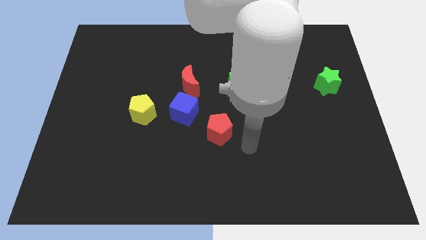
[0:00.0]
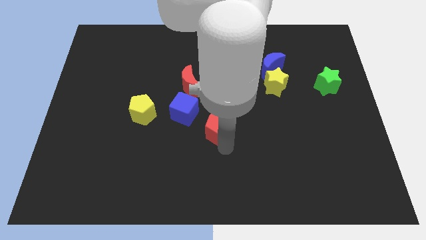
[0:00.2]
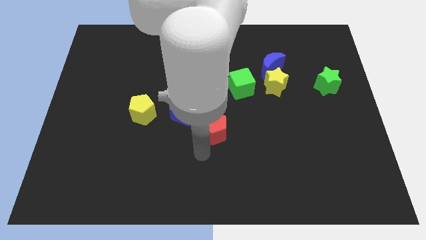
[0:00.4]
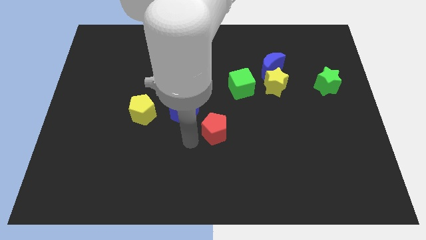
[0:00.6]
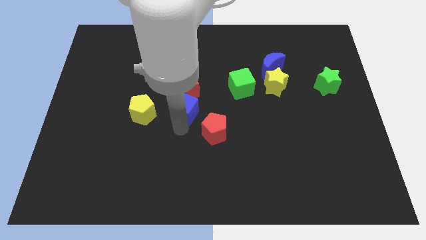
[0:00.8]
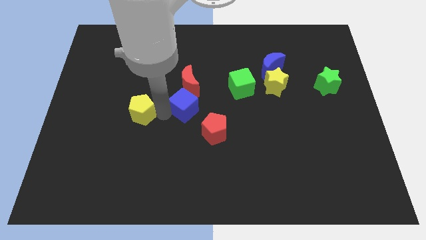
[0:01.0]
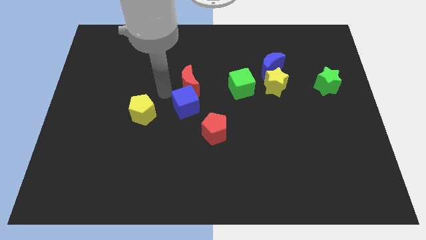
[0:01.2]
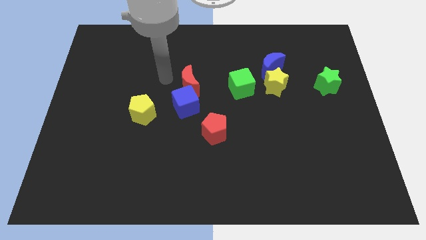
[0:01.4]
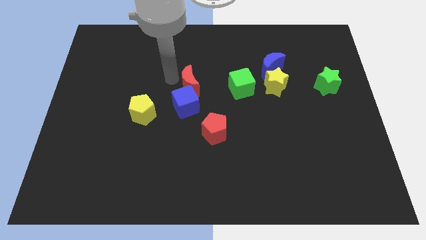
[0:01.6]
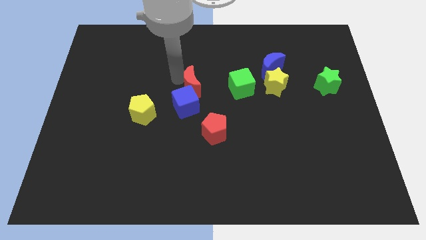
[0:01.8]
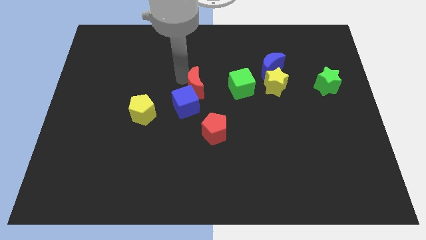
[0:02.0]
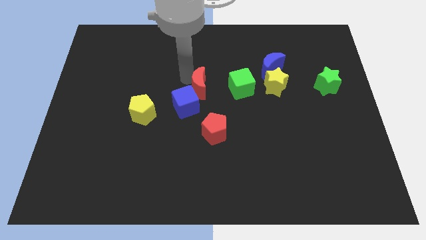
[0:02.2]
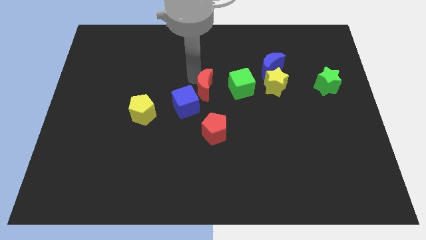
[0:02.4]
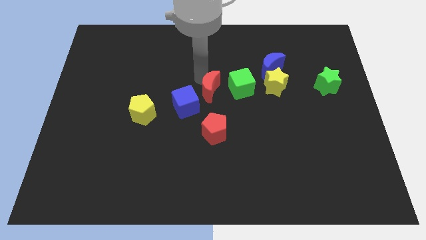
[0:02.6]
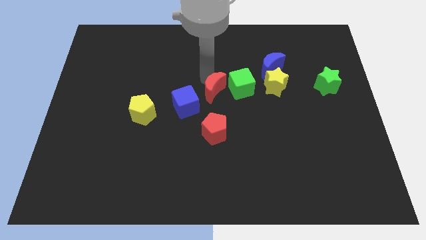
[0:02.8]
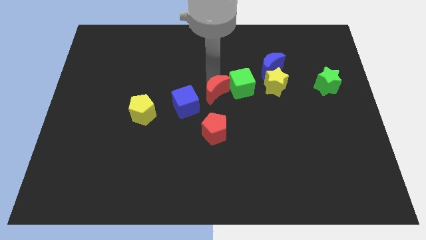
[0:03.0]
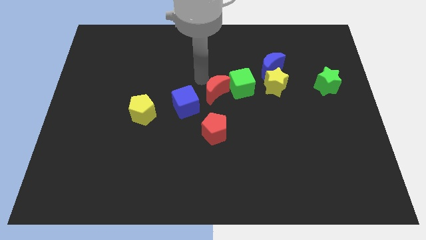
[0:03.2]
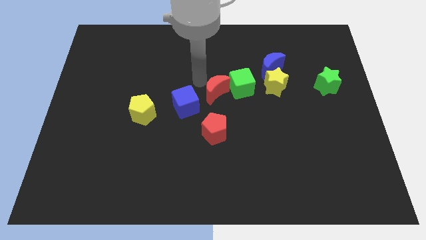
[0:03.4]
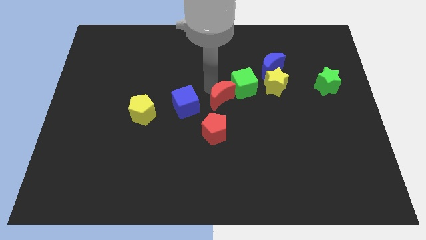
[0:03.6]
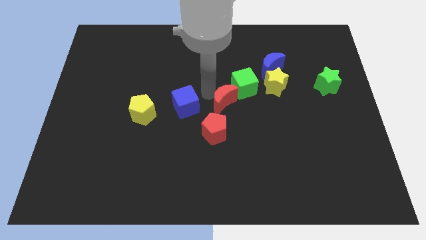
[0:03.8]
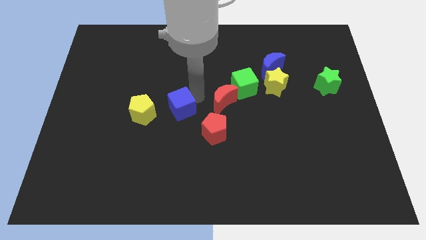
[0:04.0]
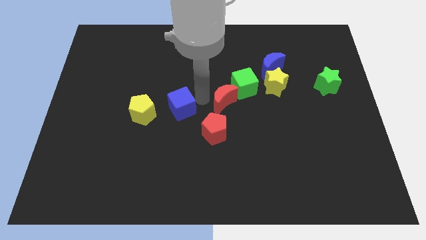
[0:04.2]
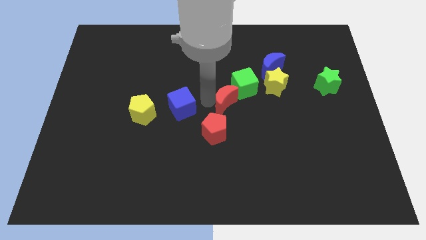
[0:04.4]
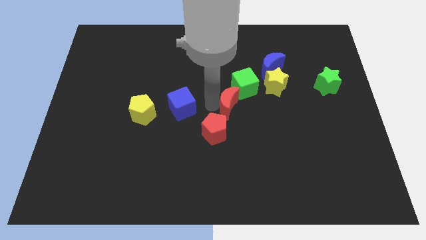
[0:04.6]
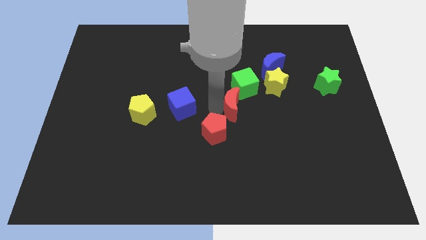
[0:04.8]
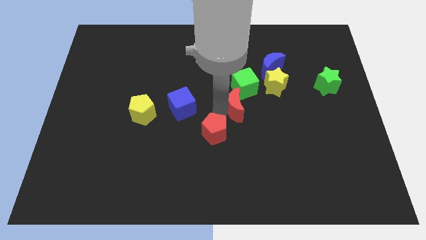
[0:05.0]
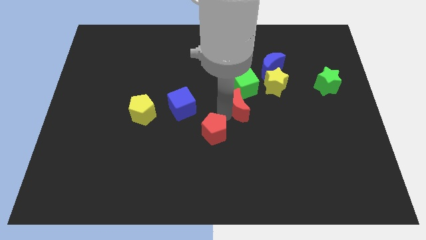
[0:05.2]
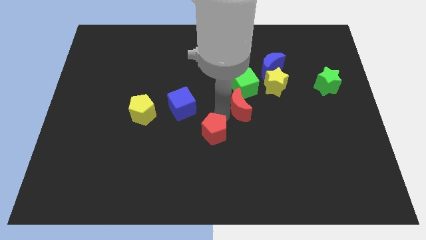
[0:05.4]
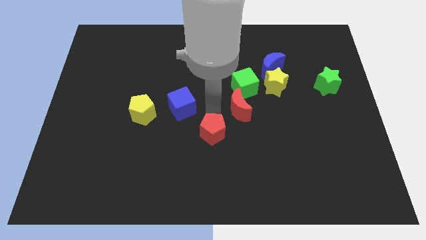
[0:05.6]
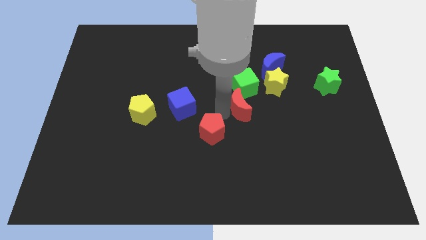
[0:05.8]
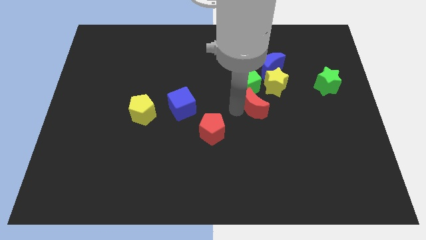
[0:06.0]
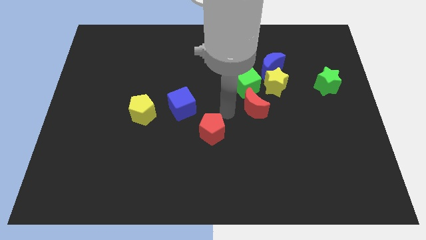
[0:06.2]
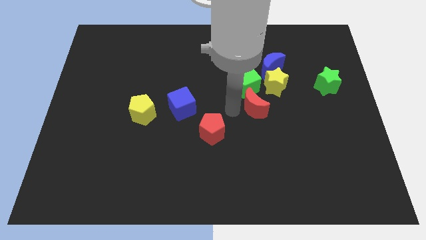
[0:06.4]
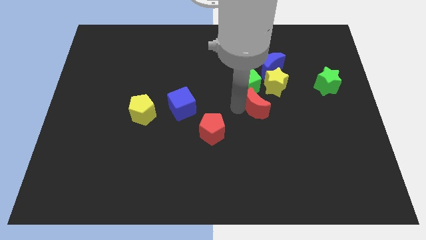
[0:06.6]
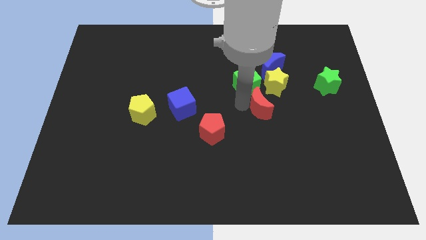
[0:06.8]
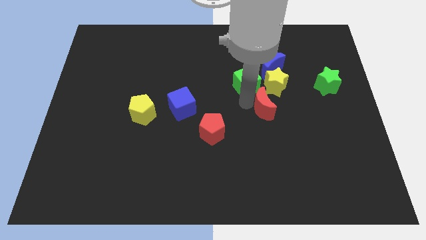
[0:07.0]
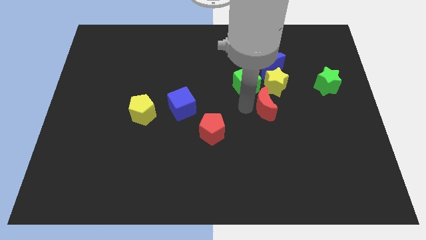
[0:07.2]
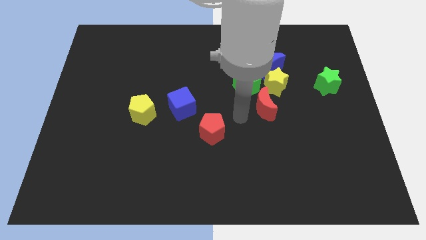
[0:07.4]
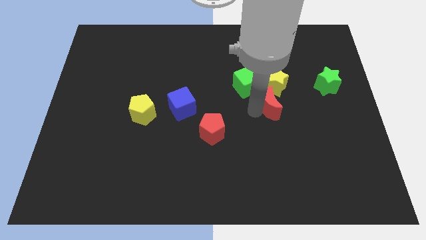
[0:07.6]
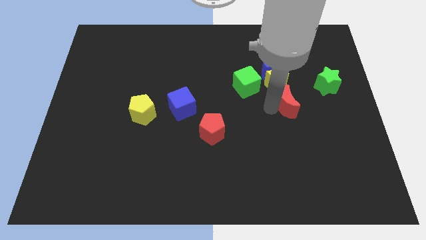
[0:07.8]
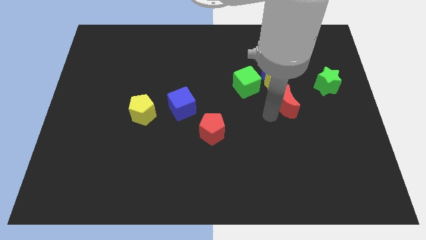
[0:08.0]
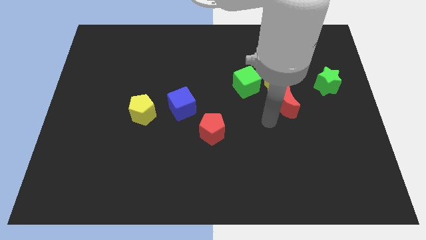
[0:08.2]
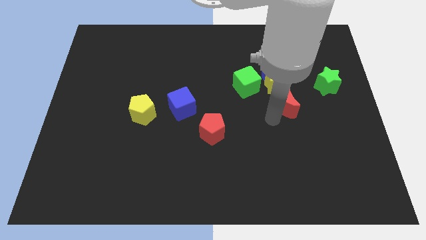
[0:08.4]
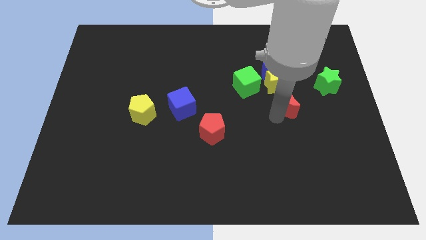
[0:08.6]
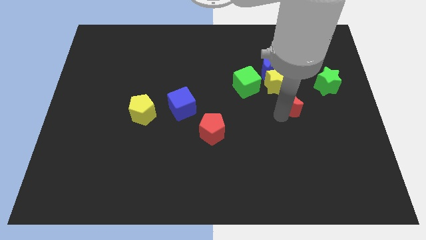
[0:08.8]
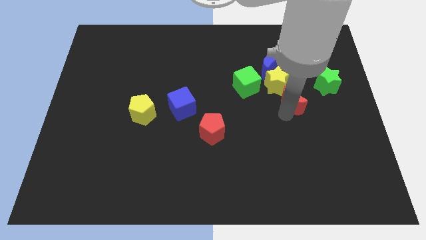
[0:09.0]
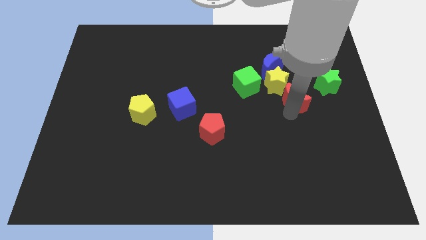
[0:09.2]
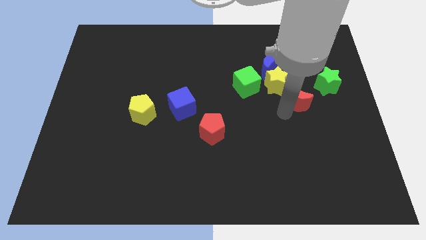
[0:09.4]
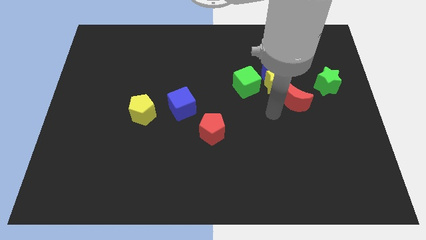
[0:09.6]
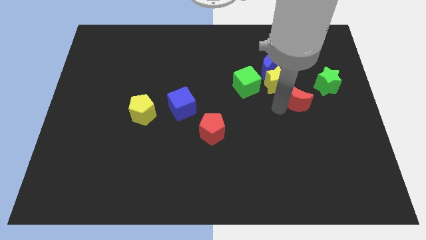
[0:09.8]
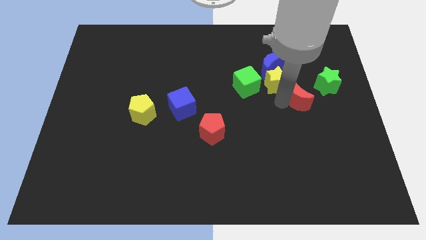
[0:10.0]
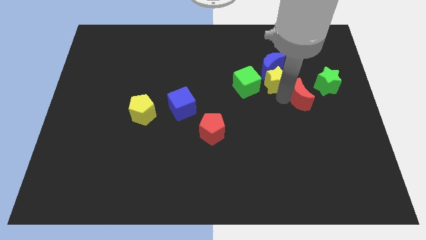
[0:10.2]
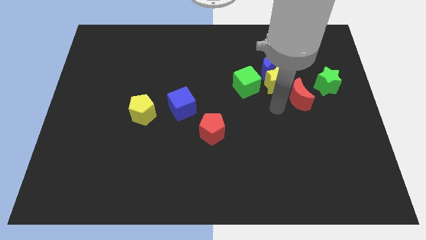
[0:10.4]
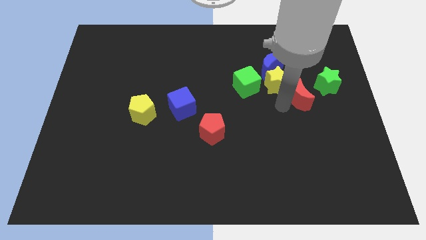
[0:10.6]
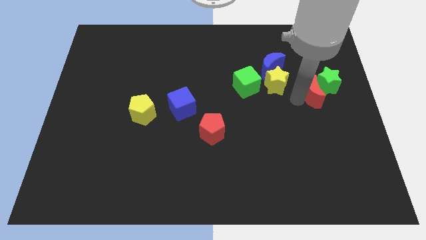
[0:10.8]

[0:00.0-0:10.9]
push the red moon close to the green star

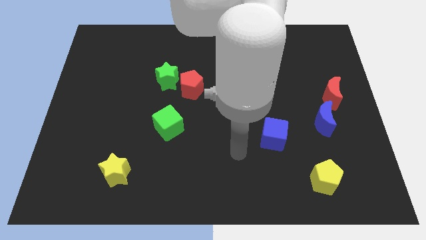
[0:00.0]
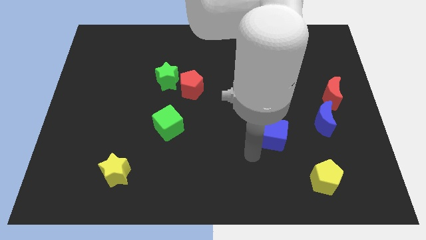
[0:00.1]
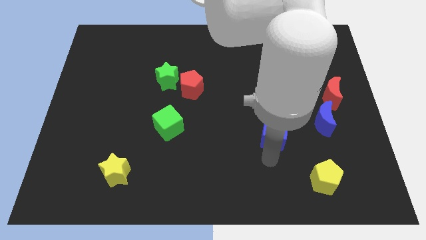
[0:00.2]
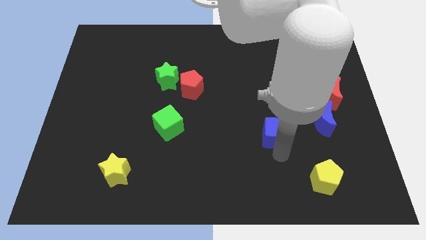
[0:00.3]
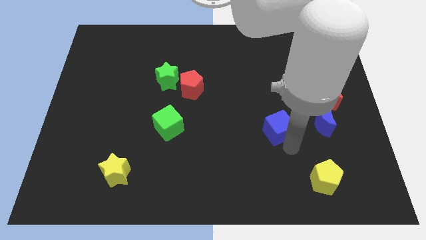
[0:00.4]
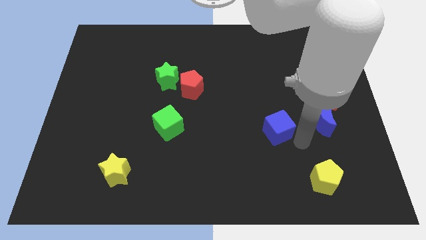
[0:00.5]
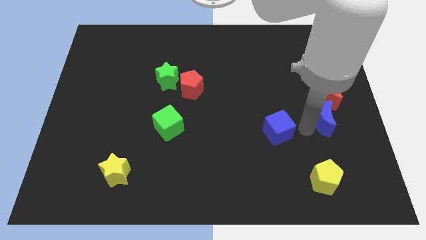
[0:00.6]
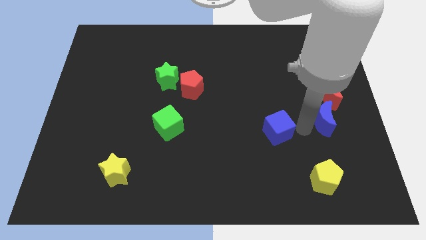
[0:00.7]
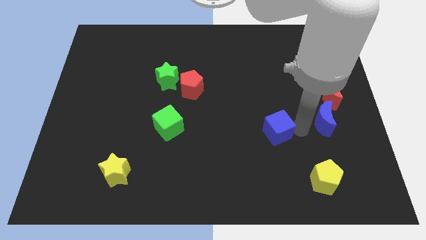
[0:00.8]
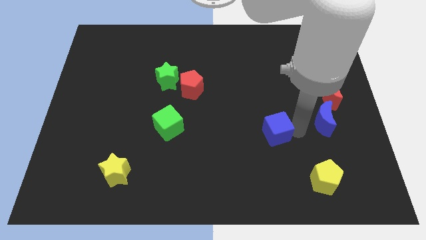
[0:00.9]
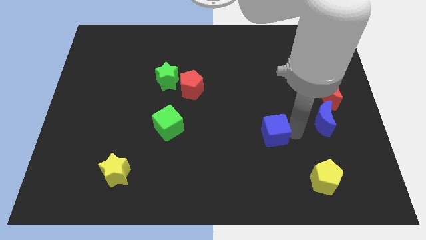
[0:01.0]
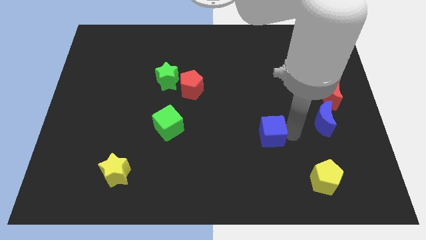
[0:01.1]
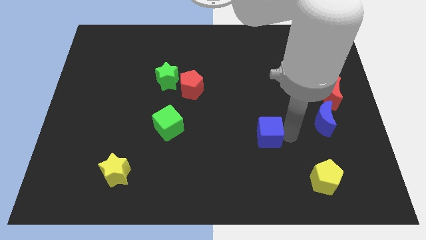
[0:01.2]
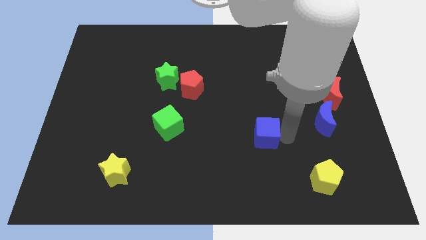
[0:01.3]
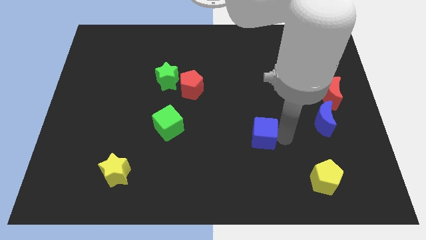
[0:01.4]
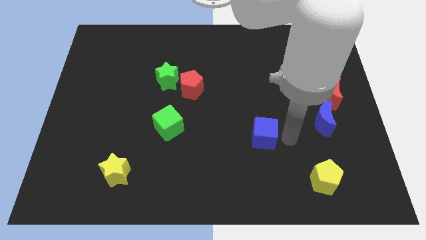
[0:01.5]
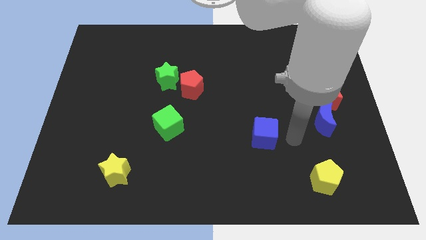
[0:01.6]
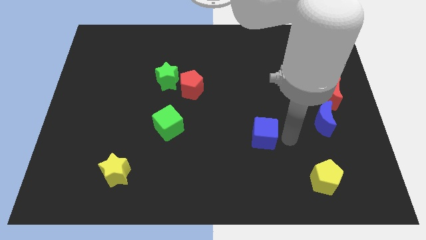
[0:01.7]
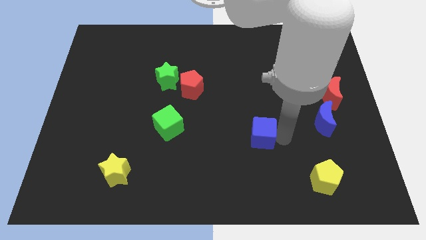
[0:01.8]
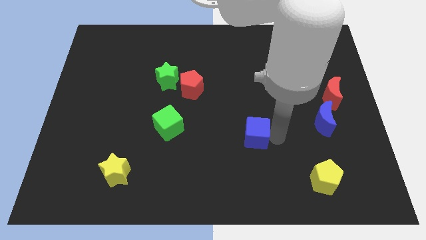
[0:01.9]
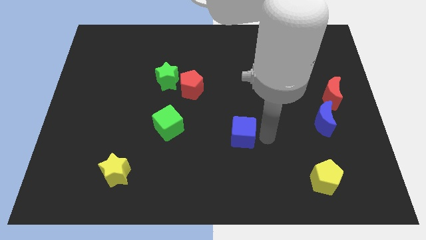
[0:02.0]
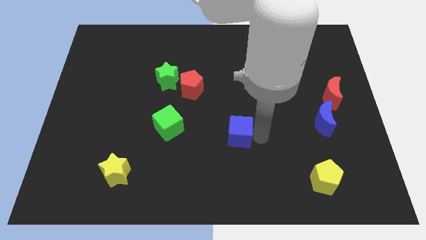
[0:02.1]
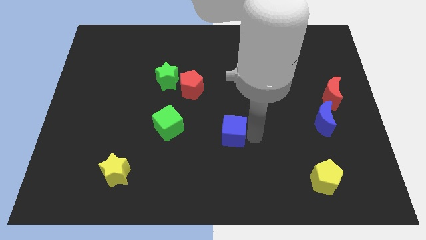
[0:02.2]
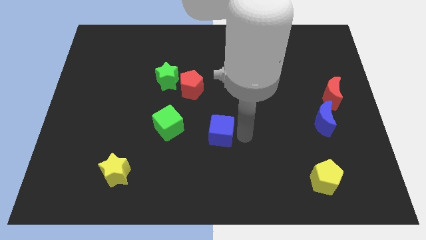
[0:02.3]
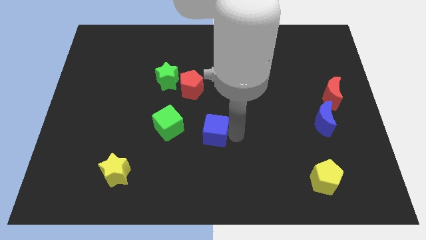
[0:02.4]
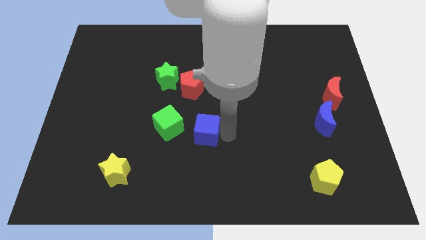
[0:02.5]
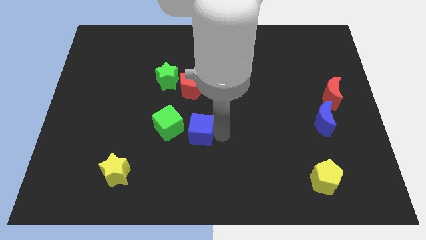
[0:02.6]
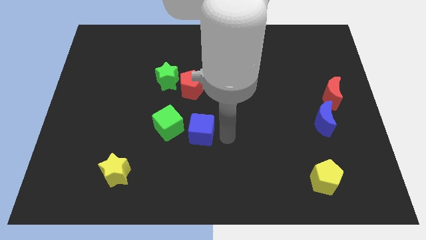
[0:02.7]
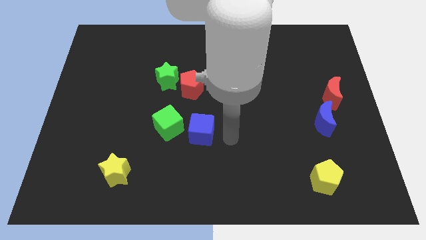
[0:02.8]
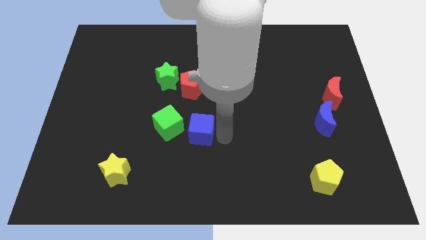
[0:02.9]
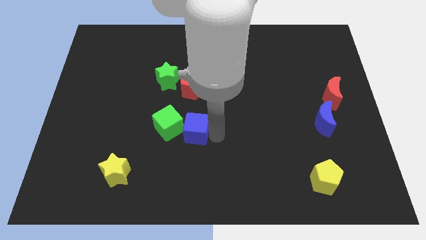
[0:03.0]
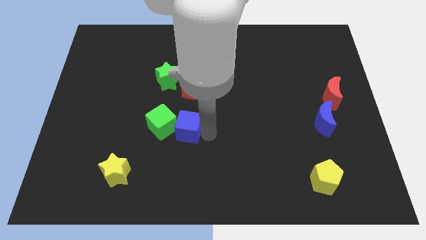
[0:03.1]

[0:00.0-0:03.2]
slide the blue cube close to the green cube
